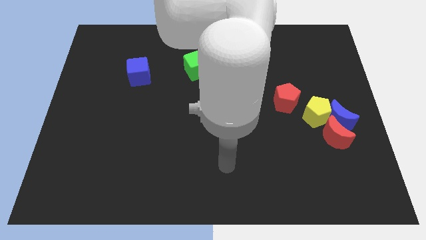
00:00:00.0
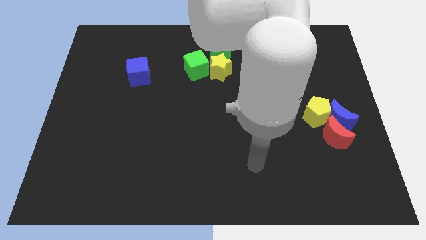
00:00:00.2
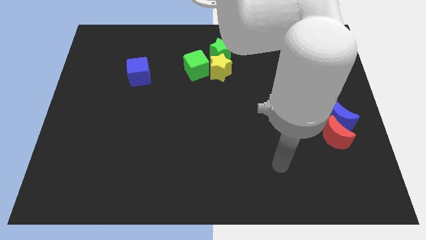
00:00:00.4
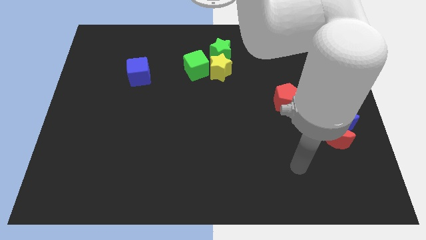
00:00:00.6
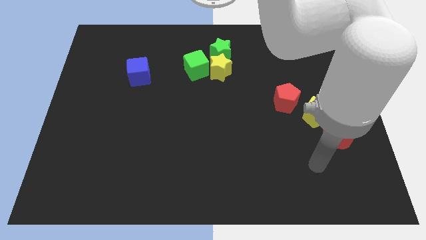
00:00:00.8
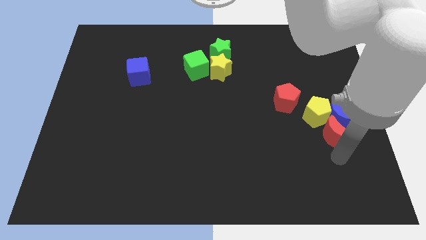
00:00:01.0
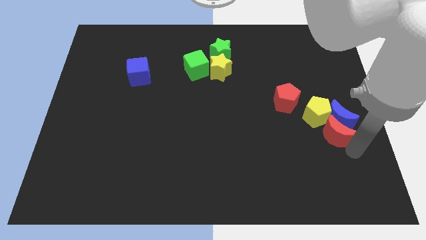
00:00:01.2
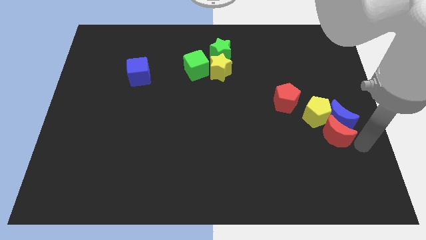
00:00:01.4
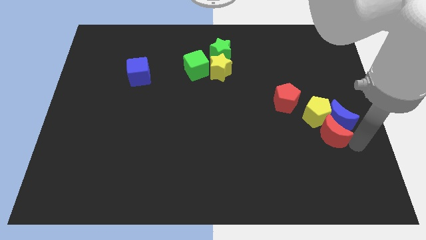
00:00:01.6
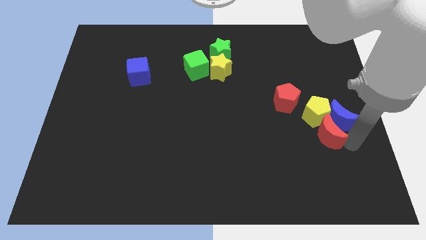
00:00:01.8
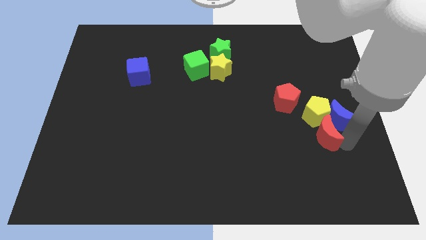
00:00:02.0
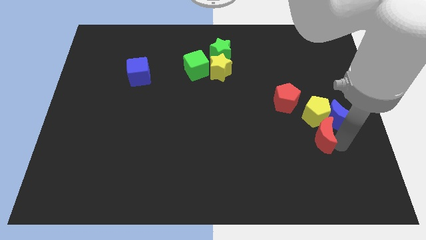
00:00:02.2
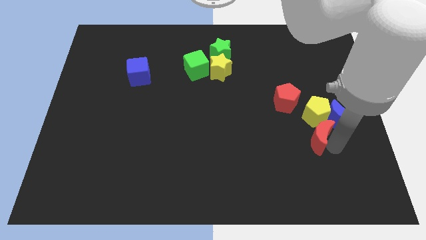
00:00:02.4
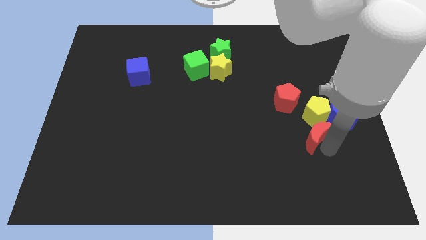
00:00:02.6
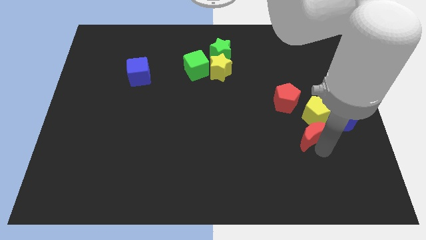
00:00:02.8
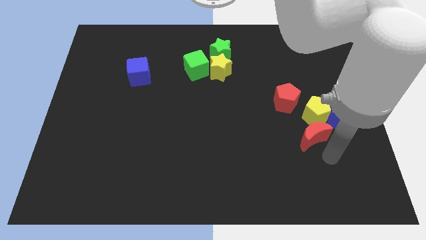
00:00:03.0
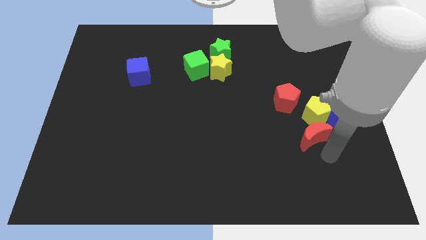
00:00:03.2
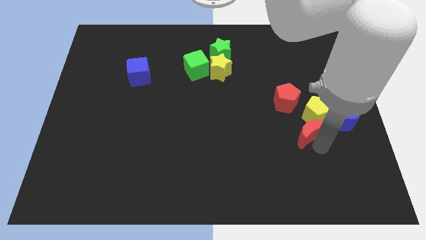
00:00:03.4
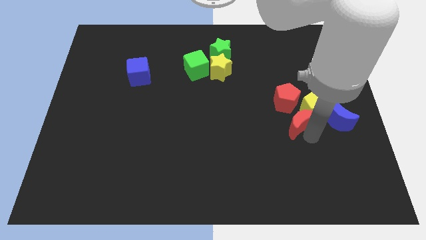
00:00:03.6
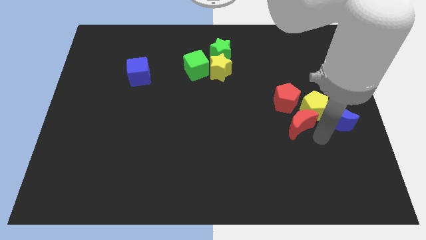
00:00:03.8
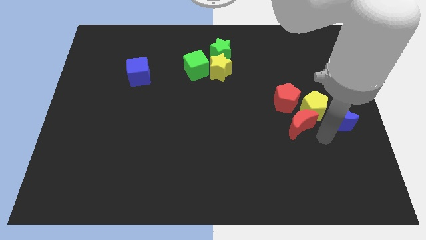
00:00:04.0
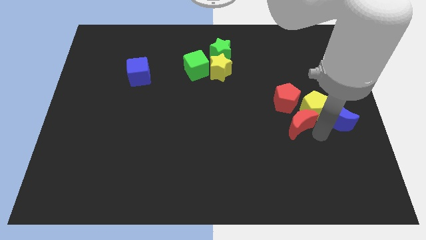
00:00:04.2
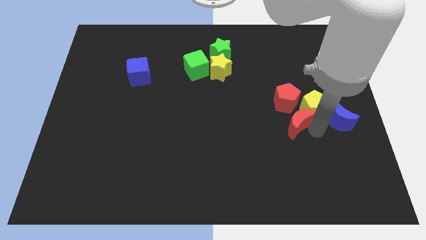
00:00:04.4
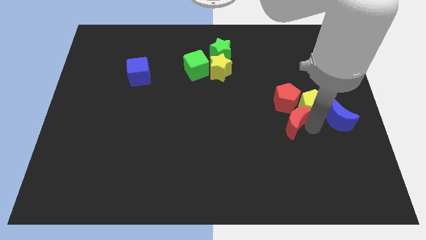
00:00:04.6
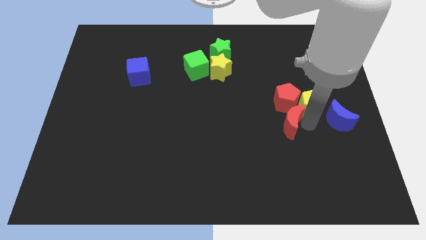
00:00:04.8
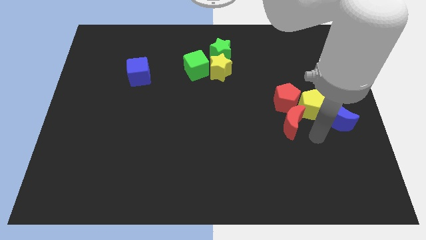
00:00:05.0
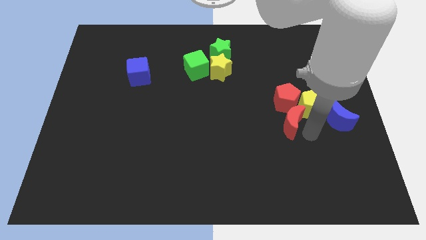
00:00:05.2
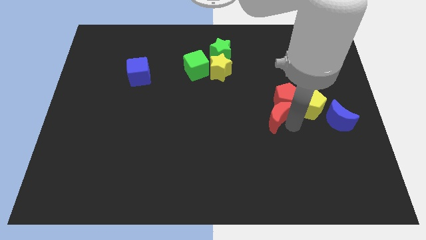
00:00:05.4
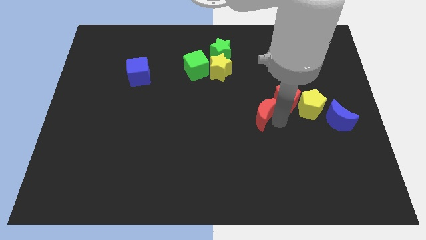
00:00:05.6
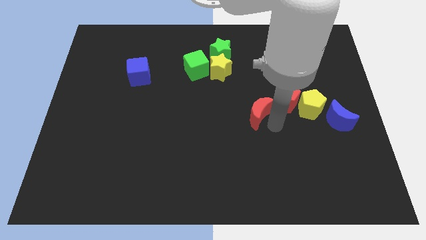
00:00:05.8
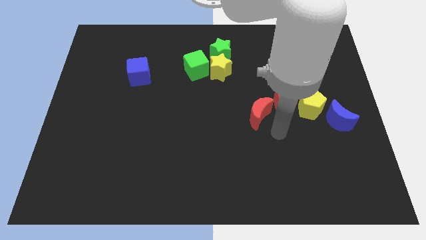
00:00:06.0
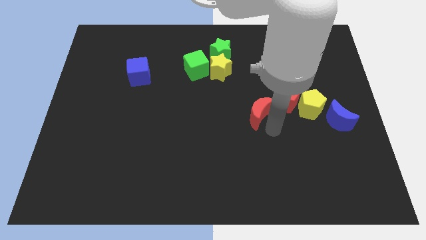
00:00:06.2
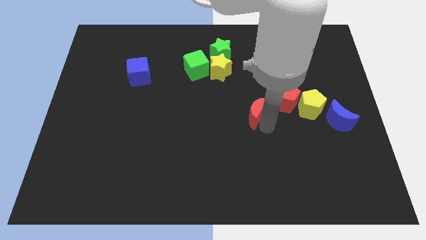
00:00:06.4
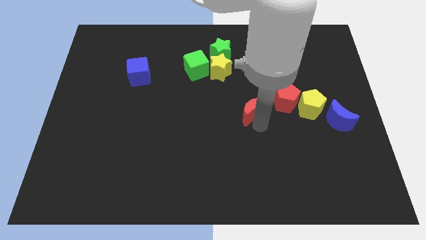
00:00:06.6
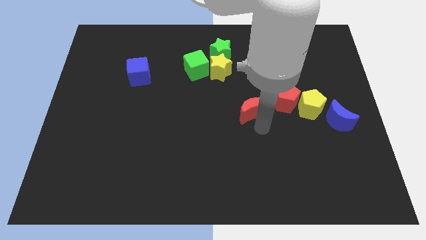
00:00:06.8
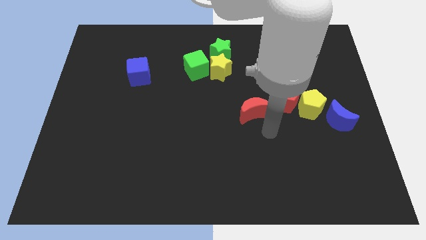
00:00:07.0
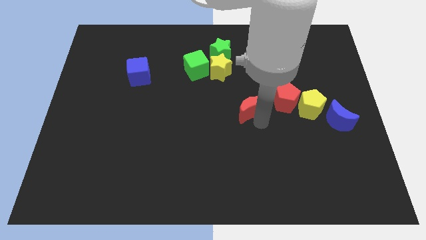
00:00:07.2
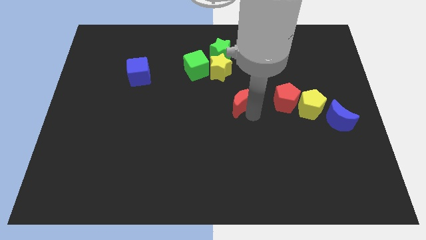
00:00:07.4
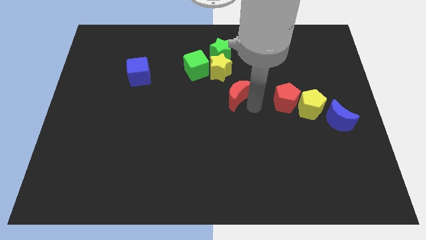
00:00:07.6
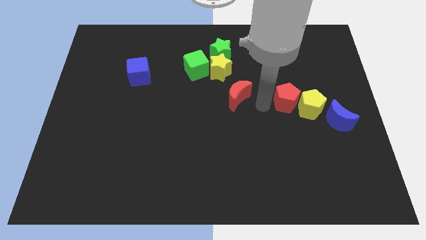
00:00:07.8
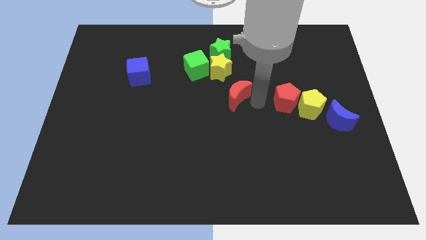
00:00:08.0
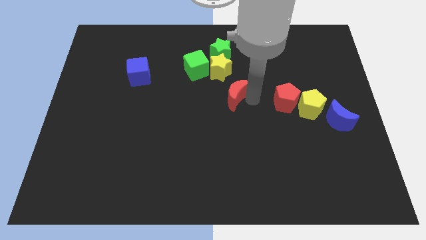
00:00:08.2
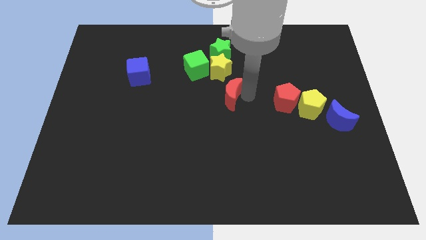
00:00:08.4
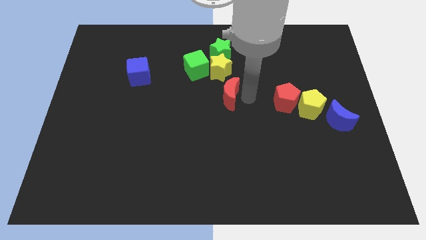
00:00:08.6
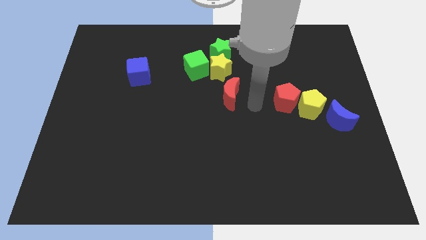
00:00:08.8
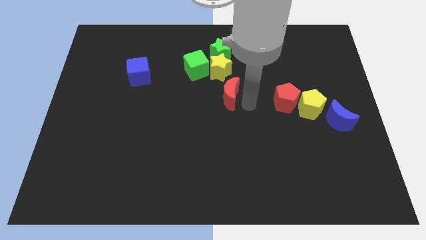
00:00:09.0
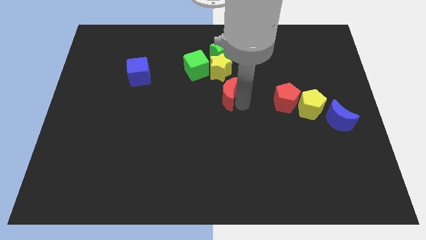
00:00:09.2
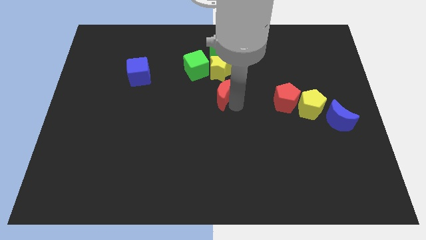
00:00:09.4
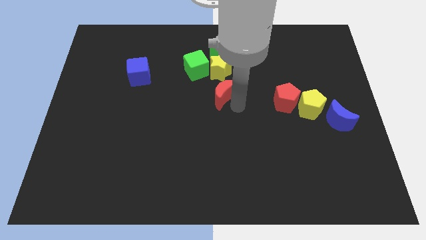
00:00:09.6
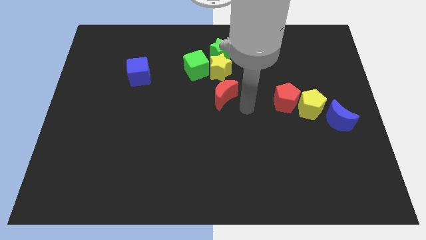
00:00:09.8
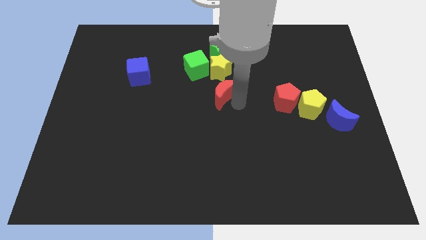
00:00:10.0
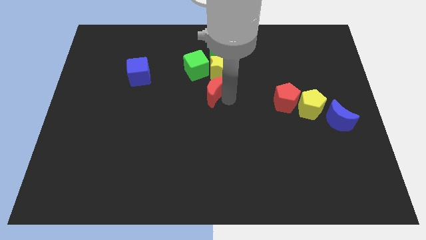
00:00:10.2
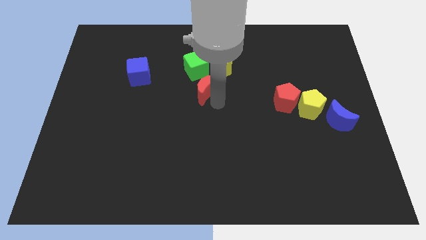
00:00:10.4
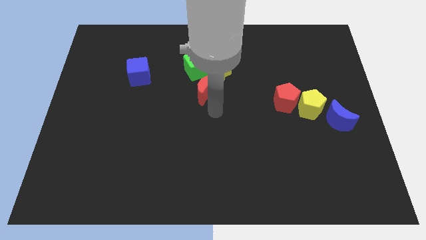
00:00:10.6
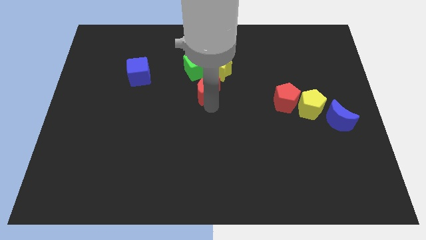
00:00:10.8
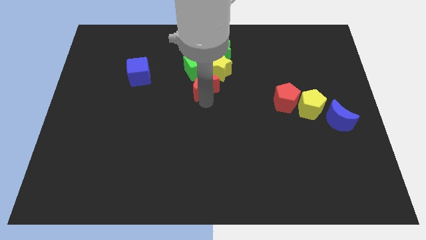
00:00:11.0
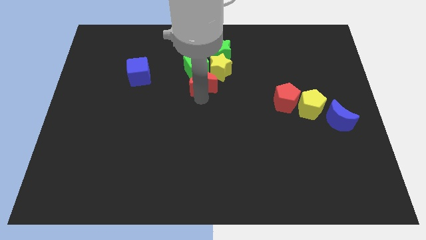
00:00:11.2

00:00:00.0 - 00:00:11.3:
put the red moon next to the green cube

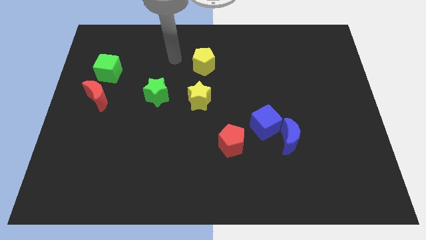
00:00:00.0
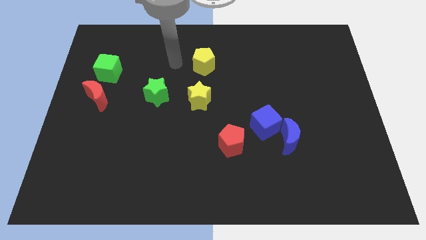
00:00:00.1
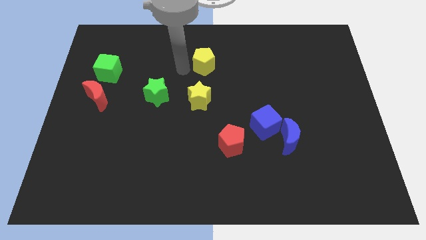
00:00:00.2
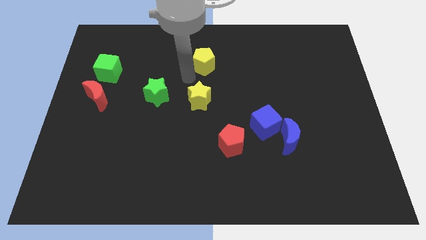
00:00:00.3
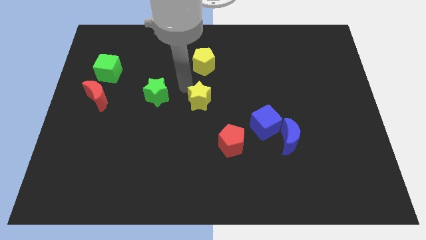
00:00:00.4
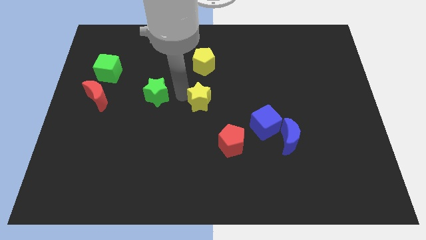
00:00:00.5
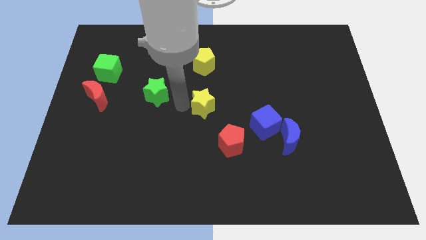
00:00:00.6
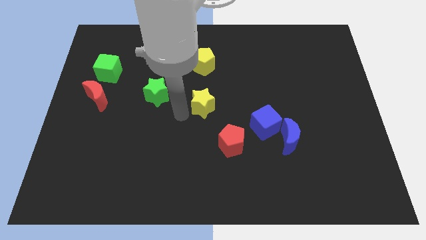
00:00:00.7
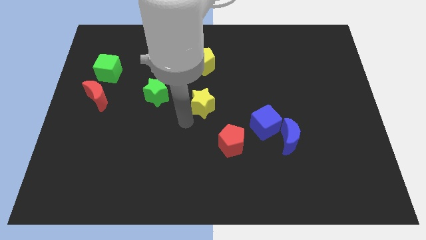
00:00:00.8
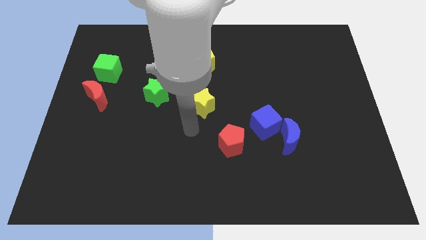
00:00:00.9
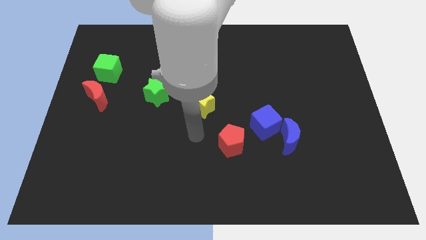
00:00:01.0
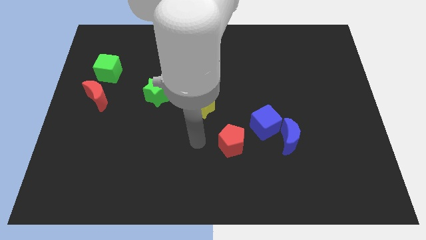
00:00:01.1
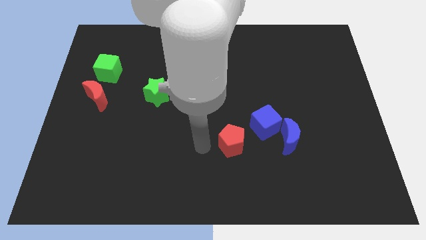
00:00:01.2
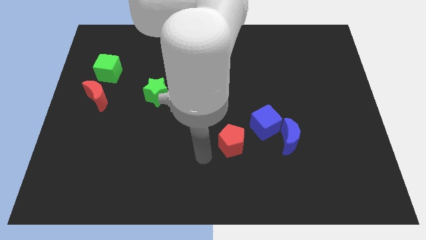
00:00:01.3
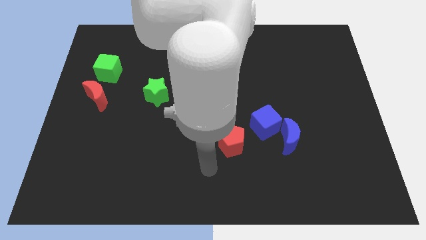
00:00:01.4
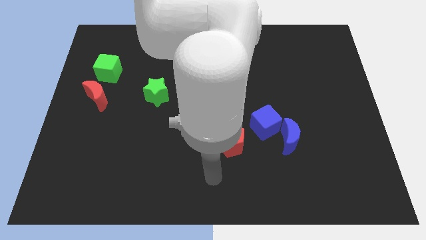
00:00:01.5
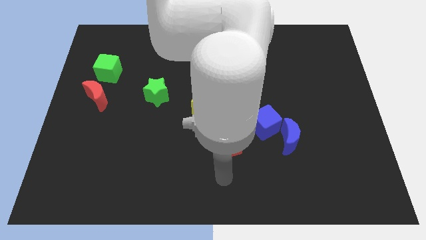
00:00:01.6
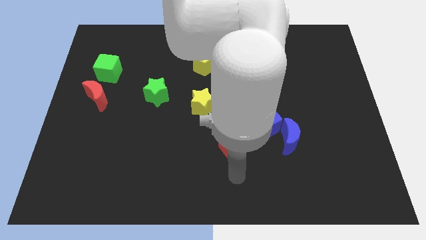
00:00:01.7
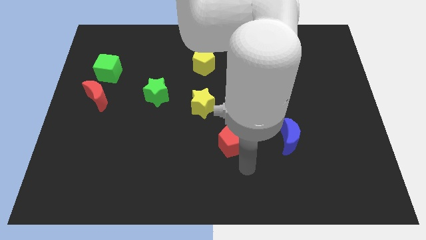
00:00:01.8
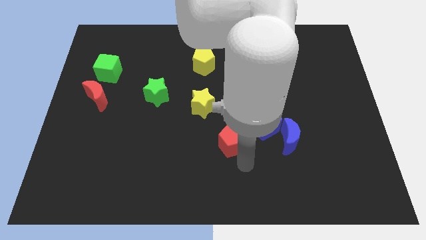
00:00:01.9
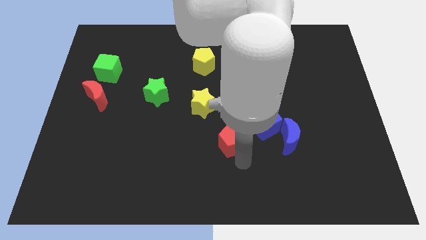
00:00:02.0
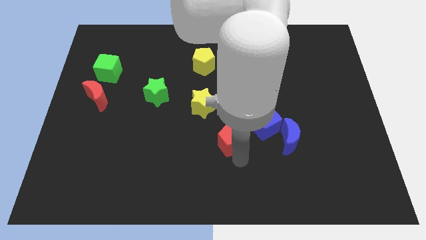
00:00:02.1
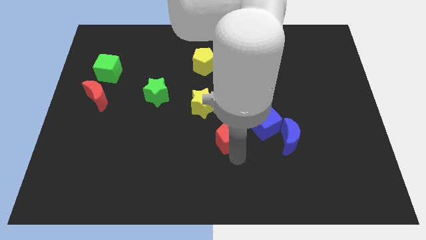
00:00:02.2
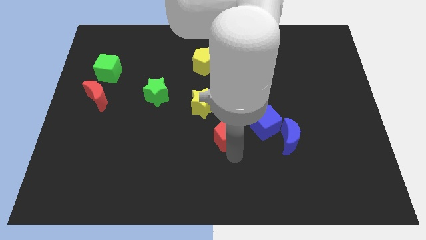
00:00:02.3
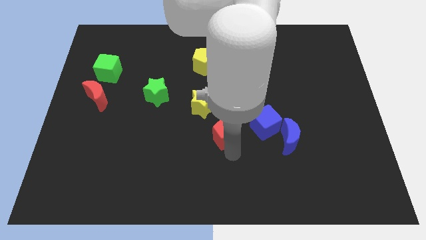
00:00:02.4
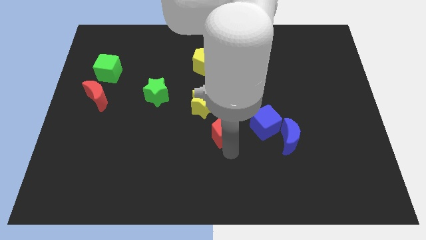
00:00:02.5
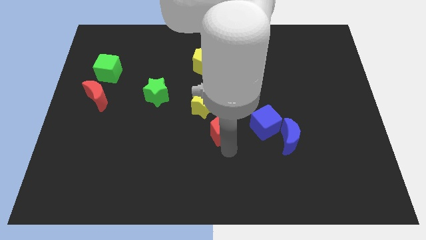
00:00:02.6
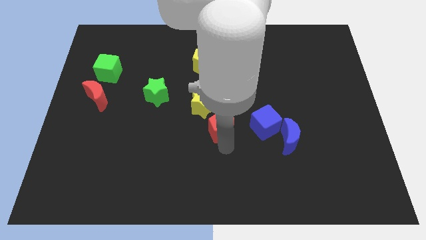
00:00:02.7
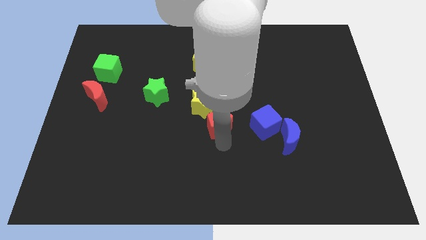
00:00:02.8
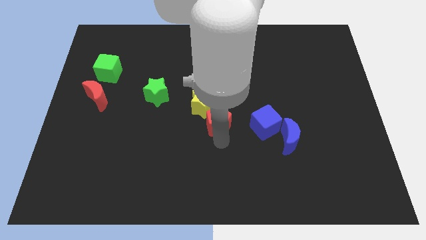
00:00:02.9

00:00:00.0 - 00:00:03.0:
push the red pentagon towards the yellow star
